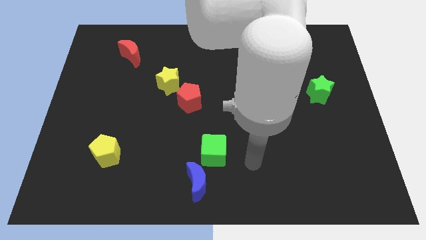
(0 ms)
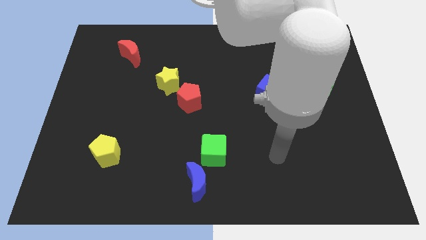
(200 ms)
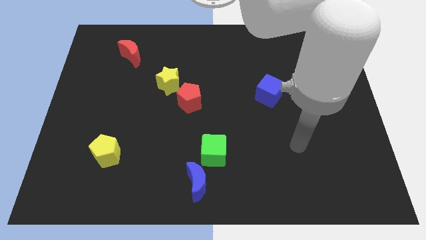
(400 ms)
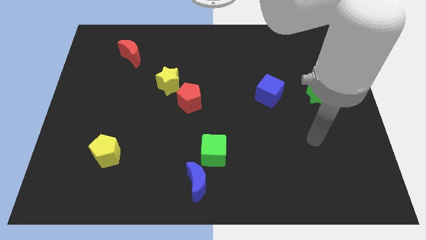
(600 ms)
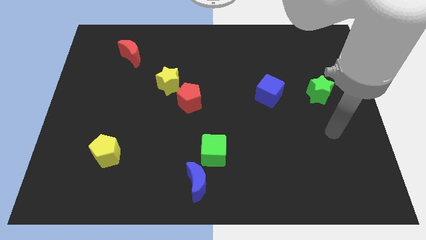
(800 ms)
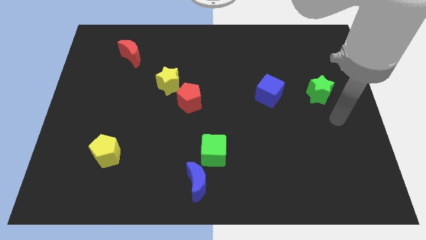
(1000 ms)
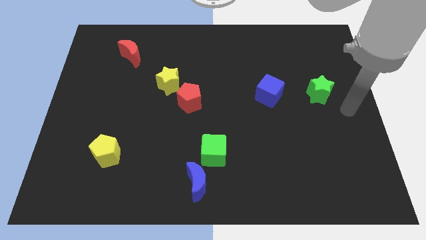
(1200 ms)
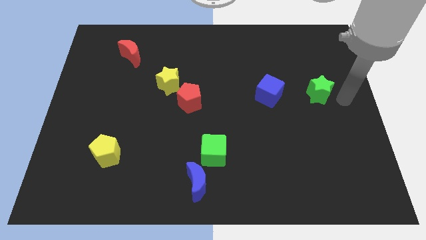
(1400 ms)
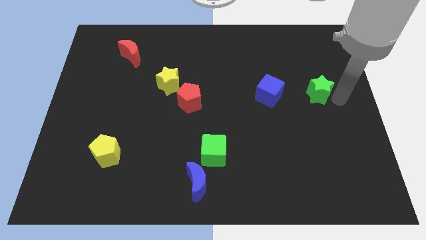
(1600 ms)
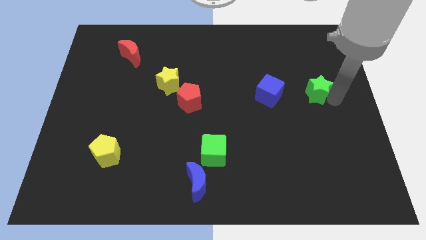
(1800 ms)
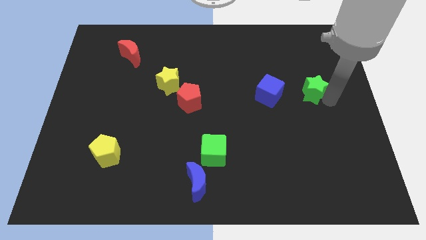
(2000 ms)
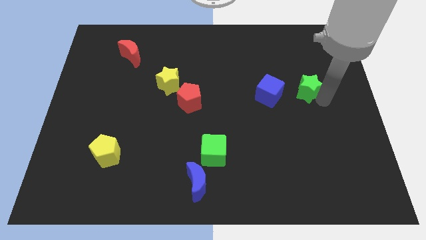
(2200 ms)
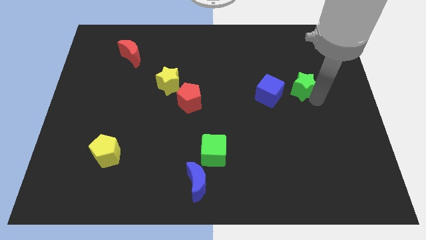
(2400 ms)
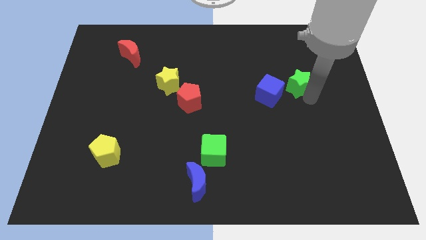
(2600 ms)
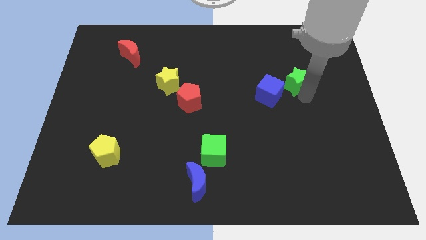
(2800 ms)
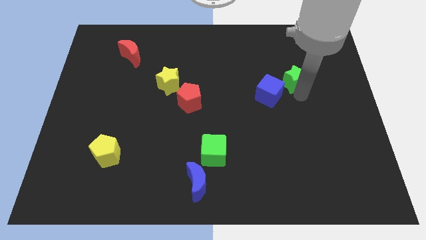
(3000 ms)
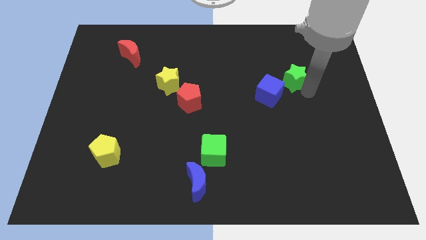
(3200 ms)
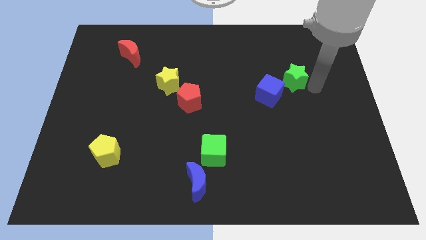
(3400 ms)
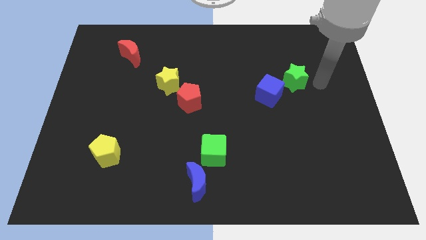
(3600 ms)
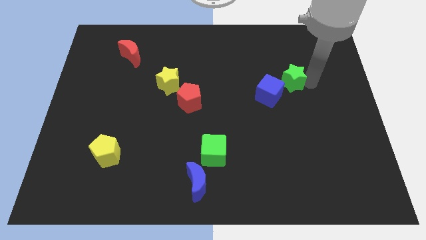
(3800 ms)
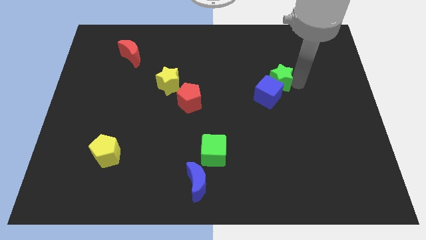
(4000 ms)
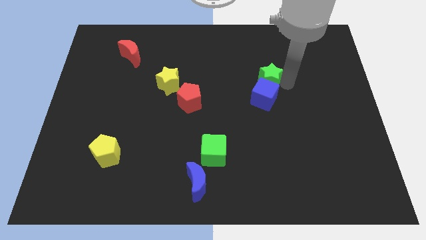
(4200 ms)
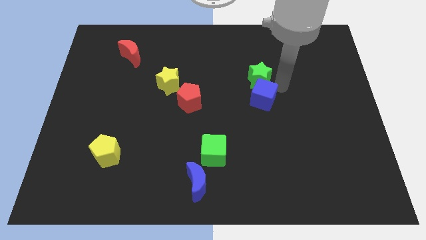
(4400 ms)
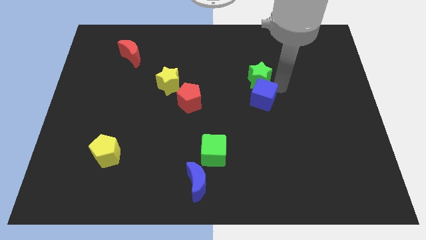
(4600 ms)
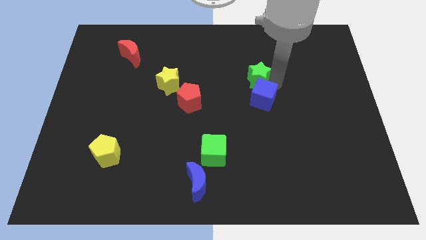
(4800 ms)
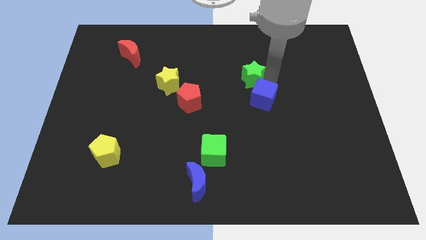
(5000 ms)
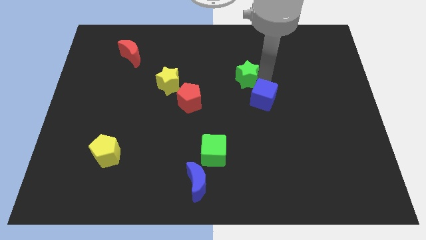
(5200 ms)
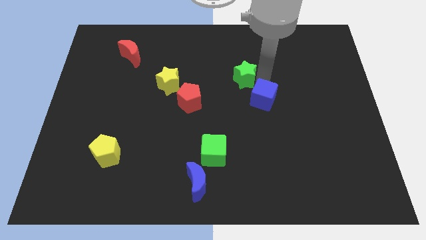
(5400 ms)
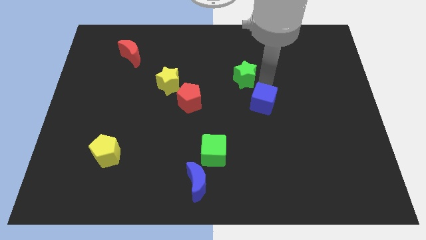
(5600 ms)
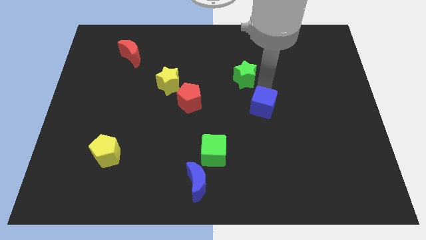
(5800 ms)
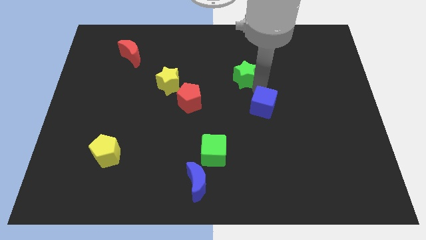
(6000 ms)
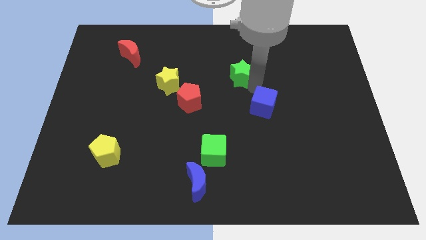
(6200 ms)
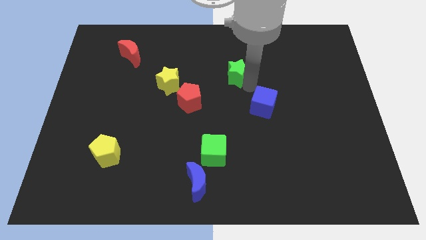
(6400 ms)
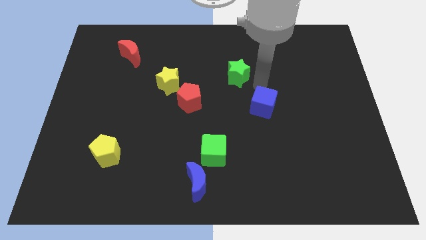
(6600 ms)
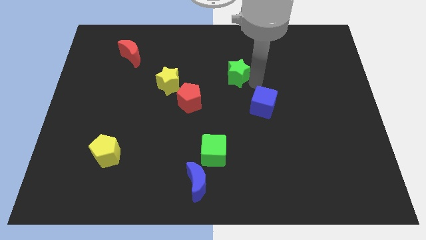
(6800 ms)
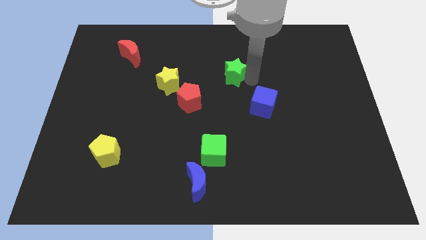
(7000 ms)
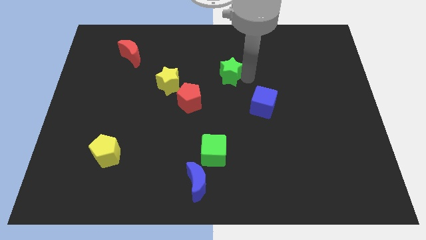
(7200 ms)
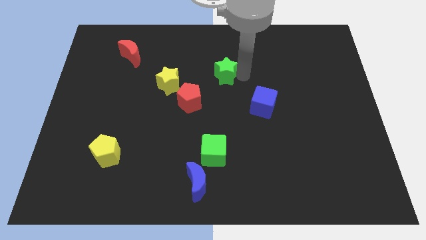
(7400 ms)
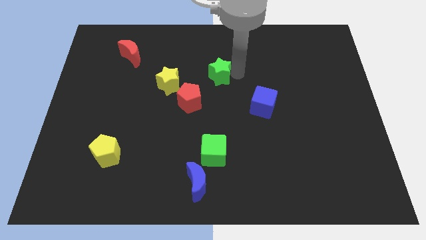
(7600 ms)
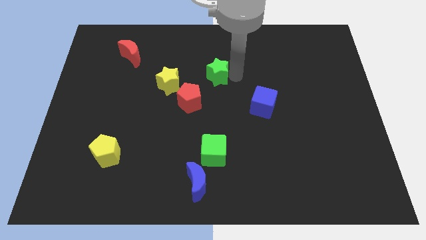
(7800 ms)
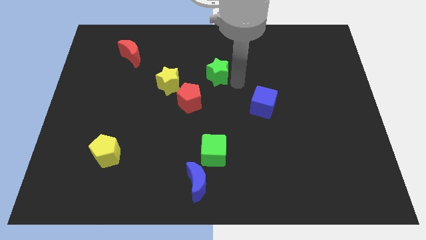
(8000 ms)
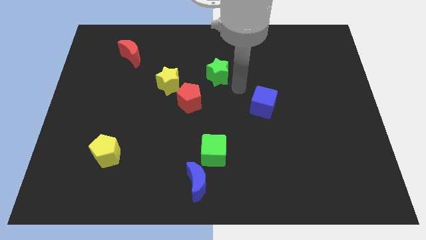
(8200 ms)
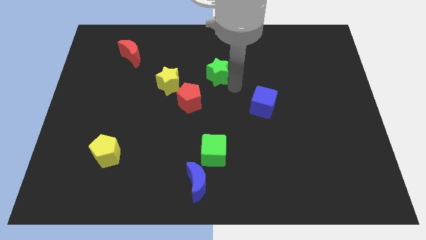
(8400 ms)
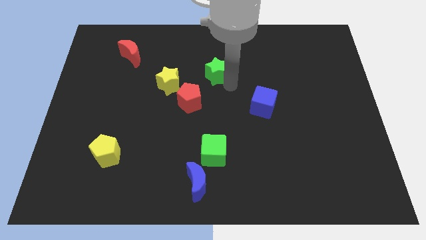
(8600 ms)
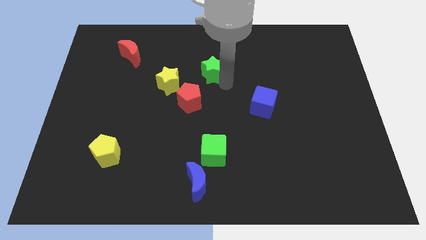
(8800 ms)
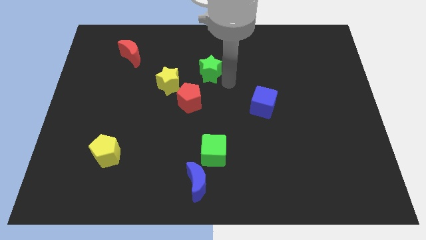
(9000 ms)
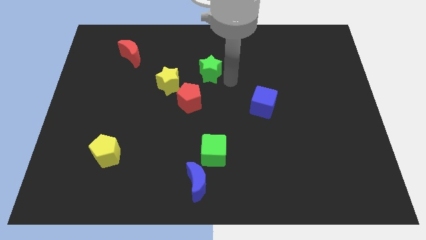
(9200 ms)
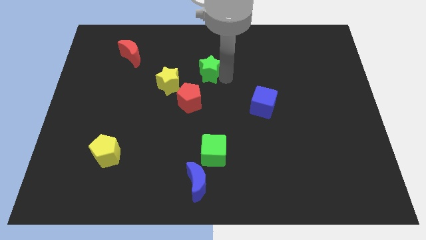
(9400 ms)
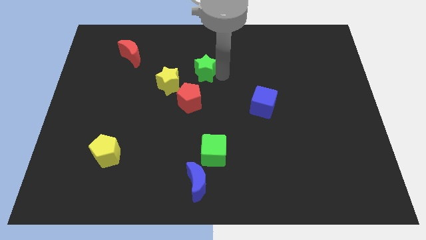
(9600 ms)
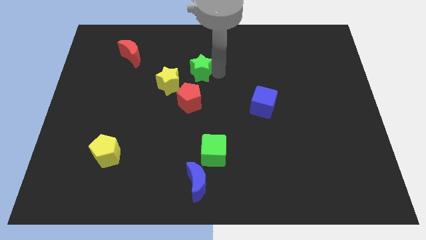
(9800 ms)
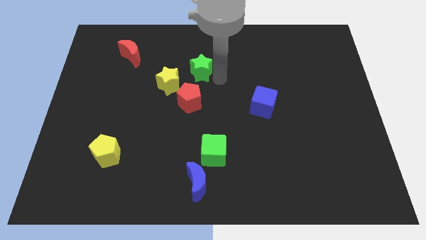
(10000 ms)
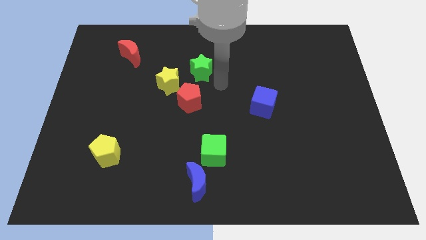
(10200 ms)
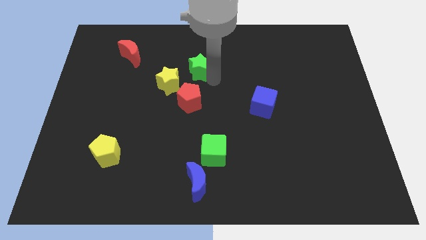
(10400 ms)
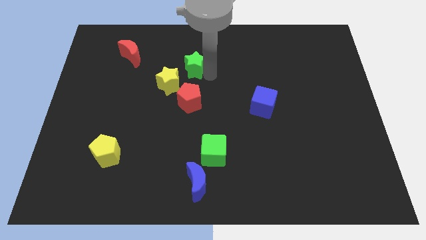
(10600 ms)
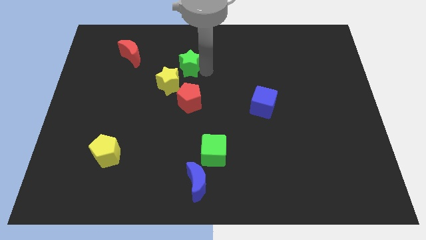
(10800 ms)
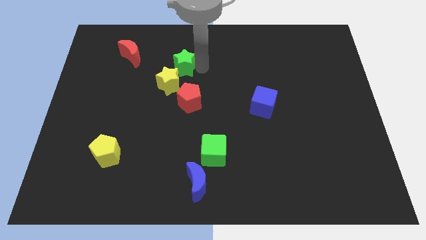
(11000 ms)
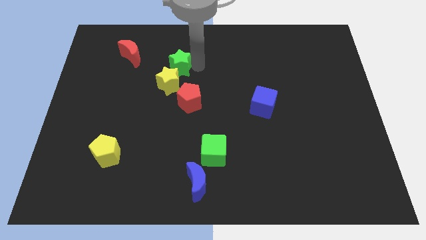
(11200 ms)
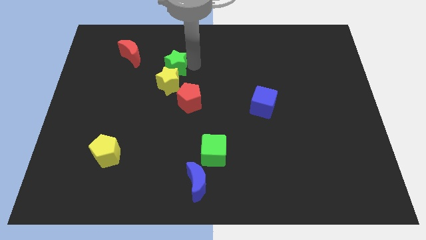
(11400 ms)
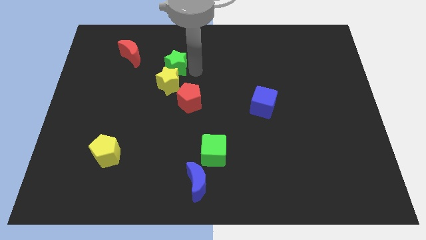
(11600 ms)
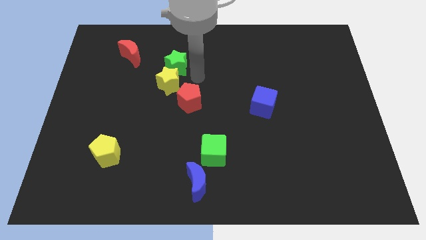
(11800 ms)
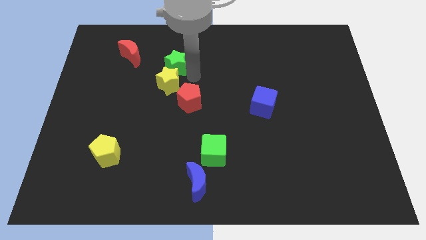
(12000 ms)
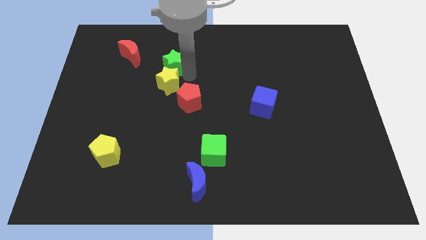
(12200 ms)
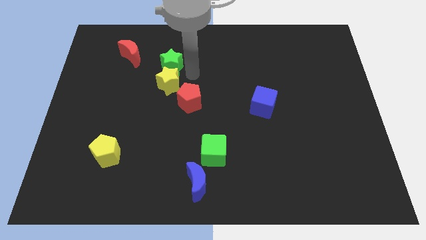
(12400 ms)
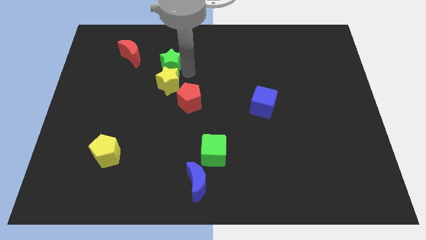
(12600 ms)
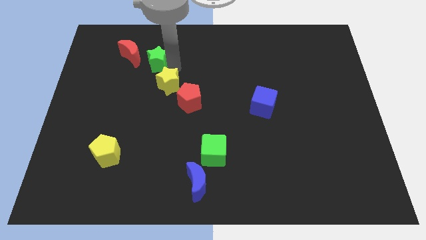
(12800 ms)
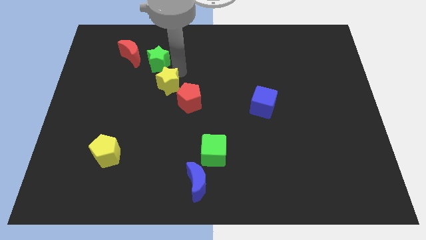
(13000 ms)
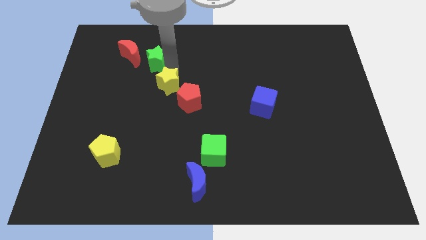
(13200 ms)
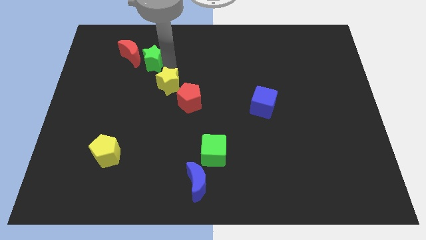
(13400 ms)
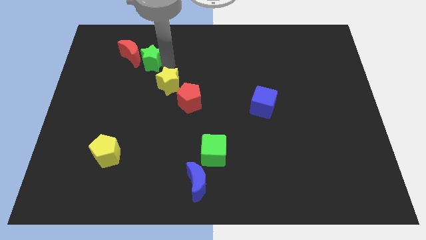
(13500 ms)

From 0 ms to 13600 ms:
slide the green star towards the red moon
